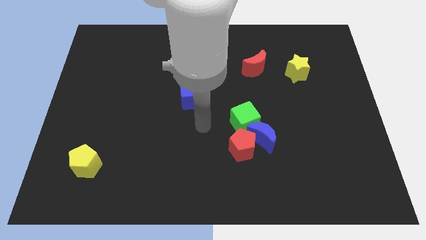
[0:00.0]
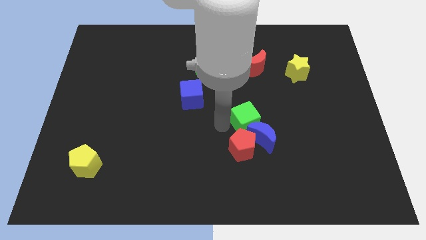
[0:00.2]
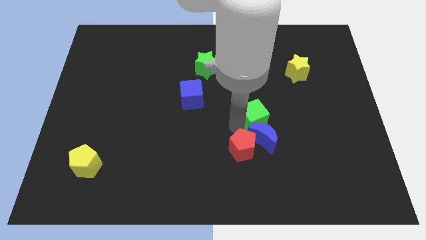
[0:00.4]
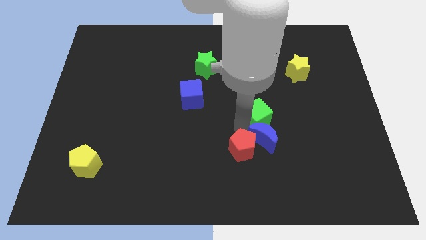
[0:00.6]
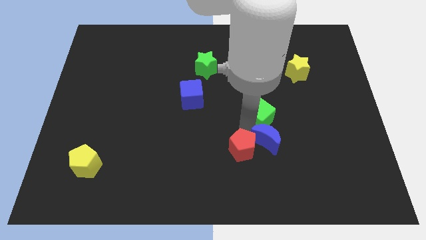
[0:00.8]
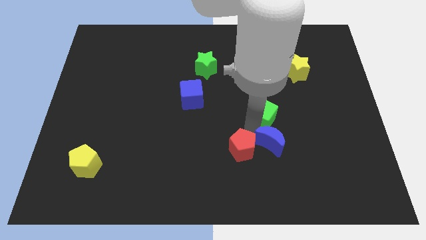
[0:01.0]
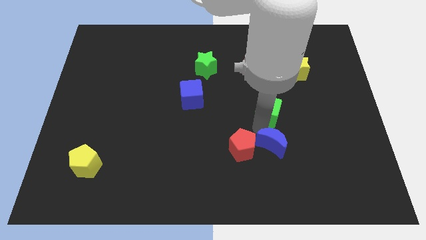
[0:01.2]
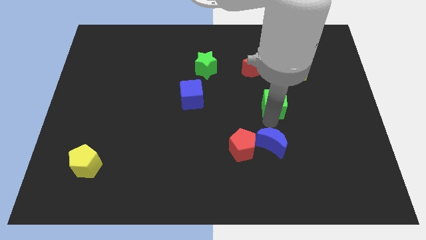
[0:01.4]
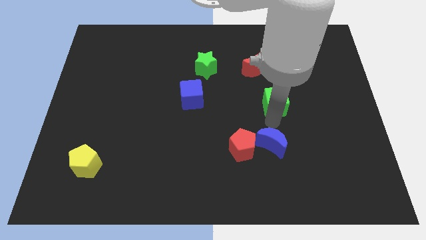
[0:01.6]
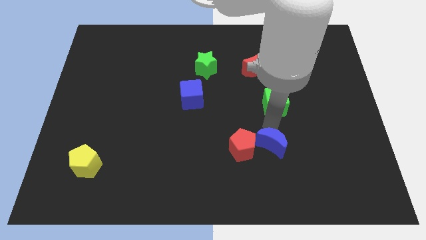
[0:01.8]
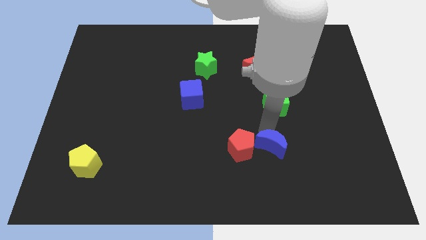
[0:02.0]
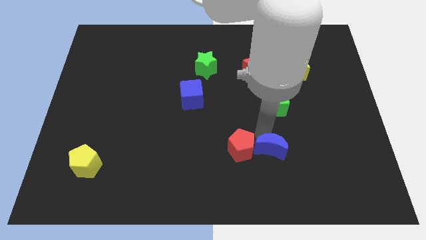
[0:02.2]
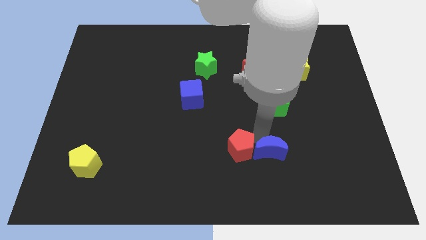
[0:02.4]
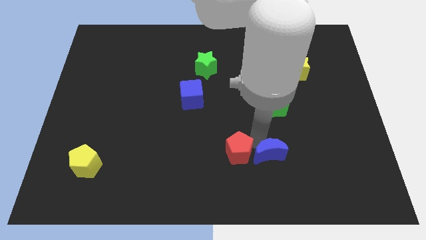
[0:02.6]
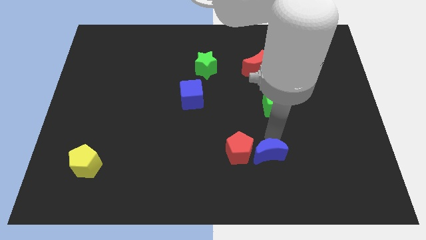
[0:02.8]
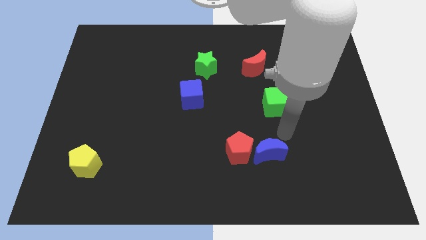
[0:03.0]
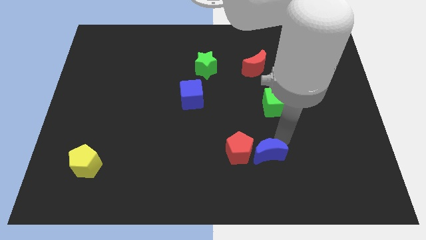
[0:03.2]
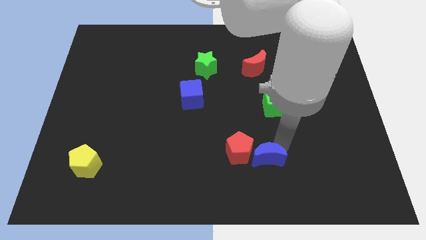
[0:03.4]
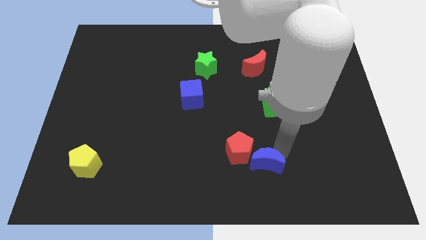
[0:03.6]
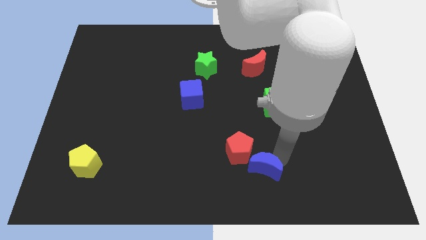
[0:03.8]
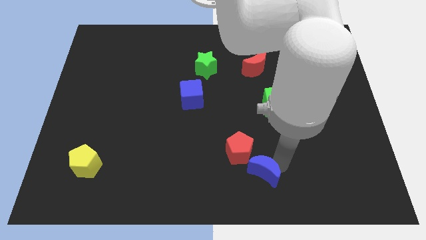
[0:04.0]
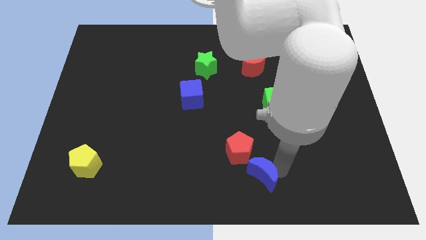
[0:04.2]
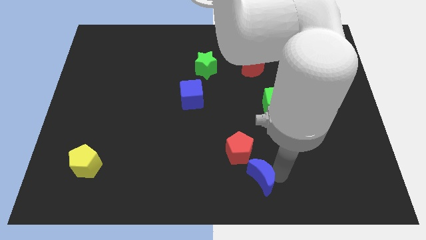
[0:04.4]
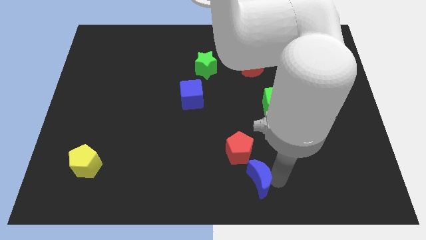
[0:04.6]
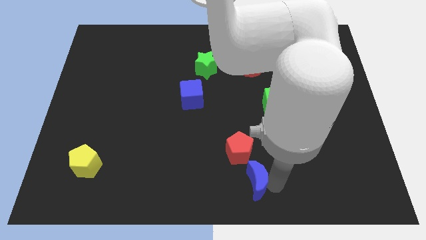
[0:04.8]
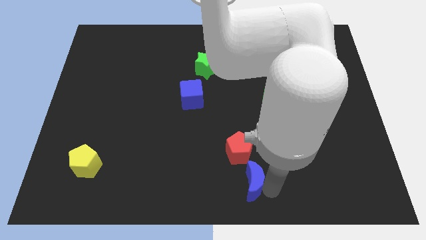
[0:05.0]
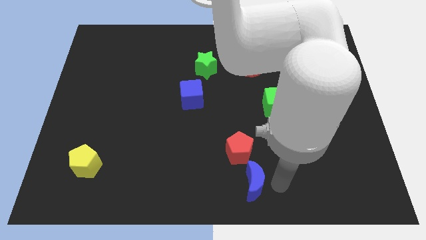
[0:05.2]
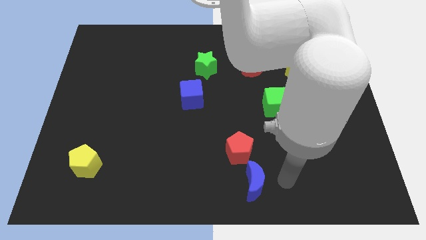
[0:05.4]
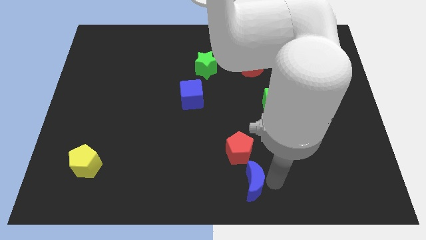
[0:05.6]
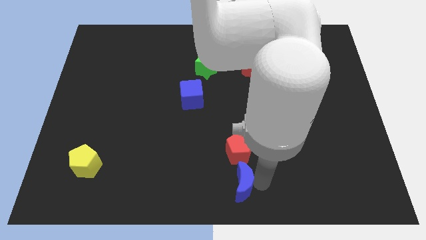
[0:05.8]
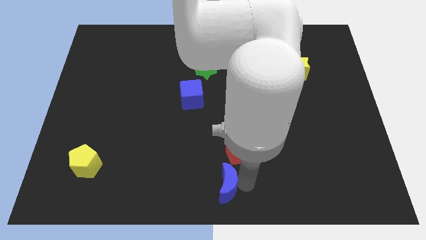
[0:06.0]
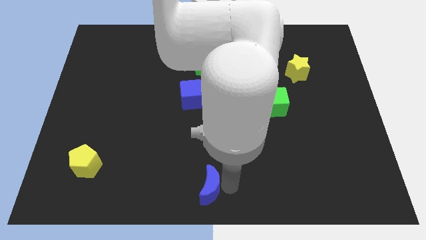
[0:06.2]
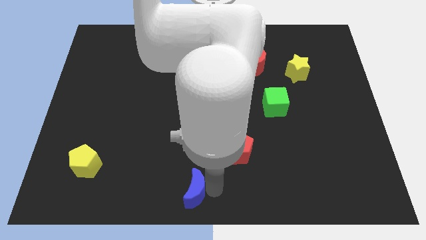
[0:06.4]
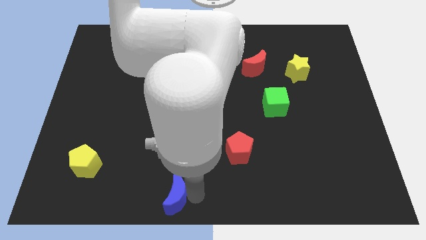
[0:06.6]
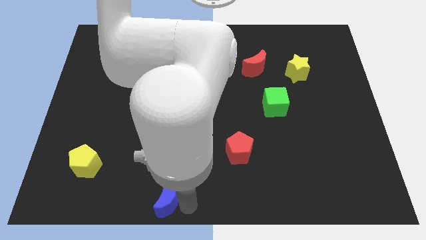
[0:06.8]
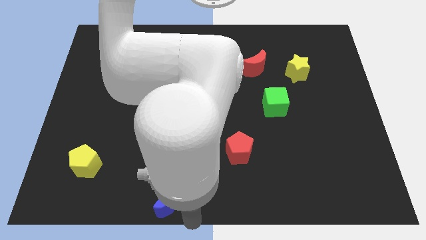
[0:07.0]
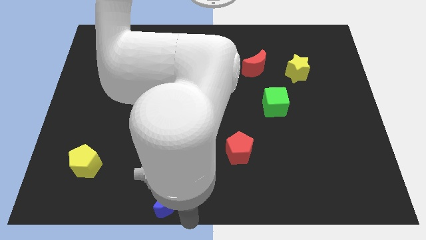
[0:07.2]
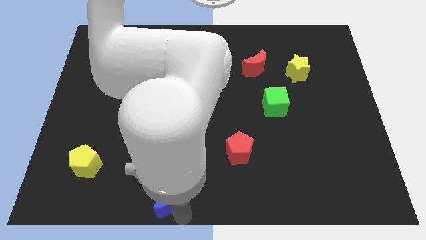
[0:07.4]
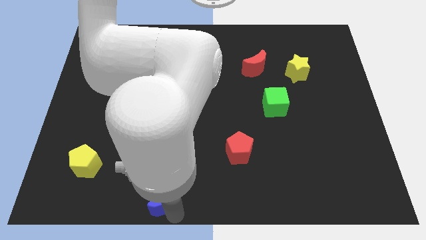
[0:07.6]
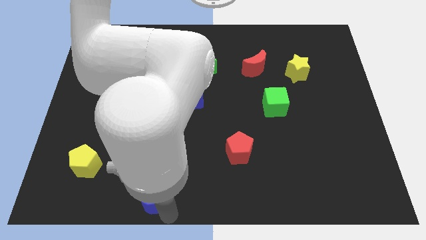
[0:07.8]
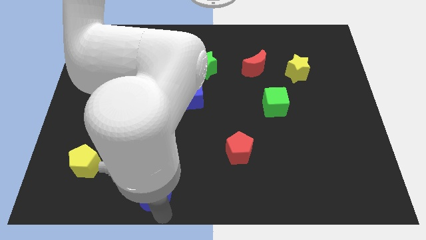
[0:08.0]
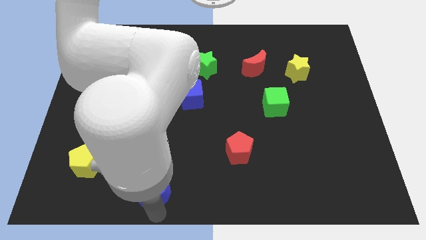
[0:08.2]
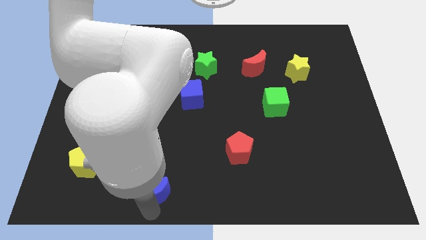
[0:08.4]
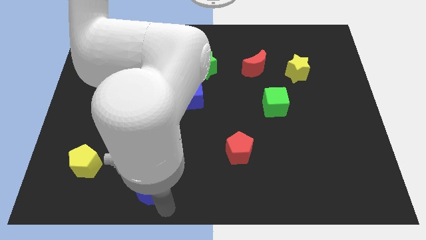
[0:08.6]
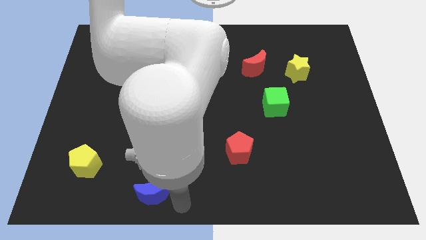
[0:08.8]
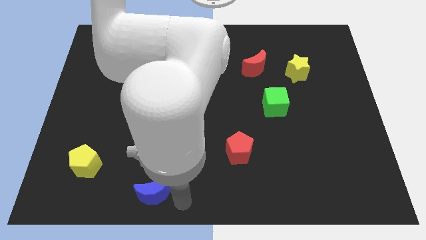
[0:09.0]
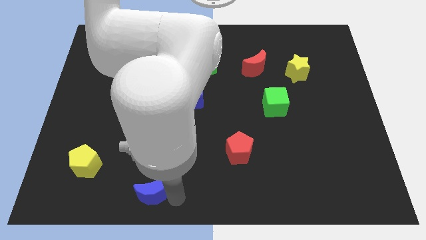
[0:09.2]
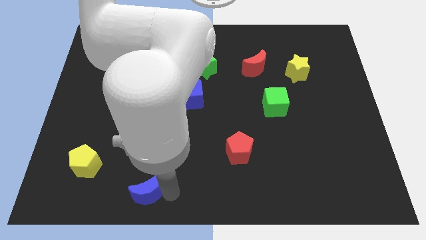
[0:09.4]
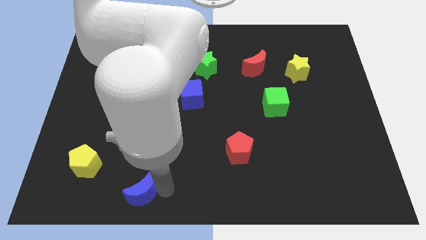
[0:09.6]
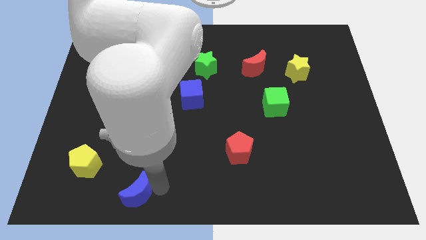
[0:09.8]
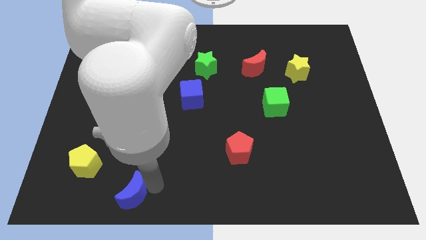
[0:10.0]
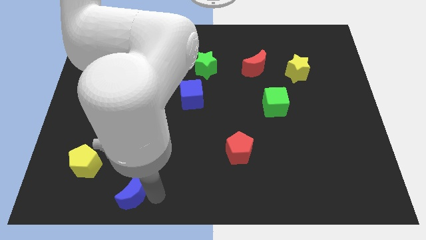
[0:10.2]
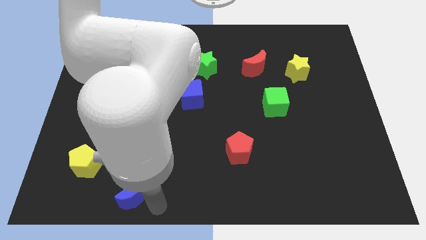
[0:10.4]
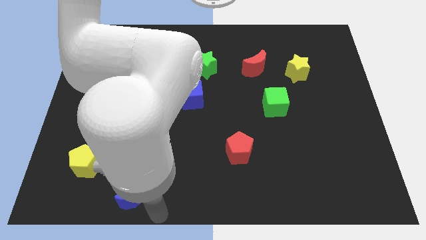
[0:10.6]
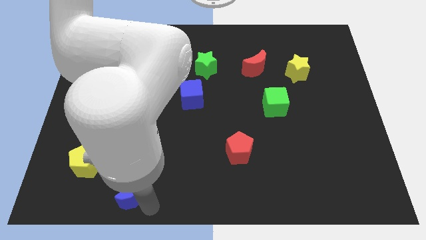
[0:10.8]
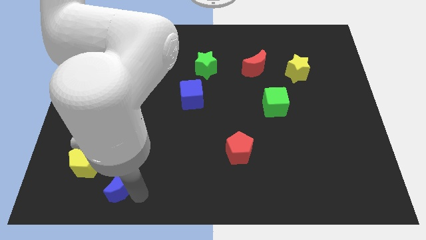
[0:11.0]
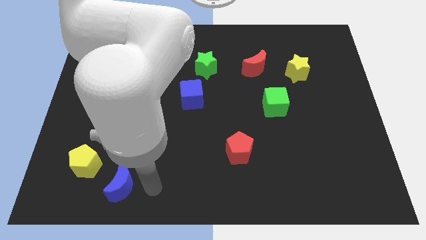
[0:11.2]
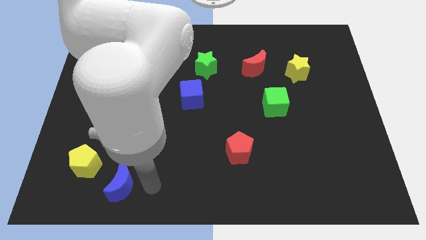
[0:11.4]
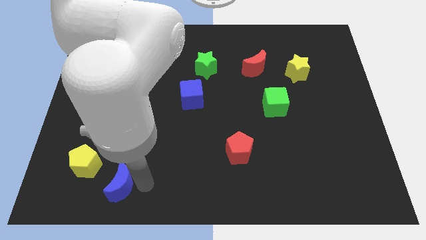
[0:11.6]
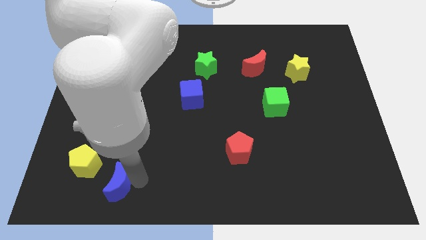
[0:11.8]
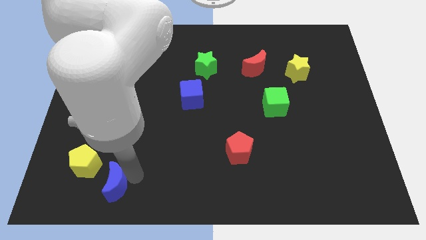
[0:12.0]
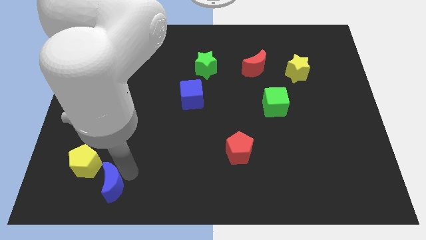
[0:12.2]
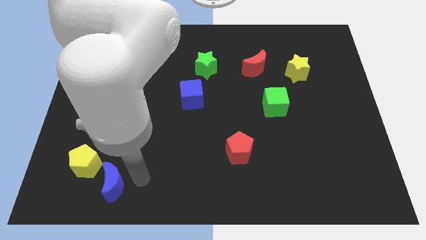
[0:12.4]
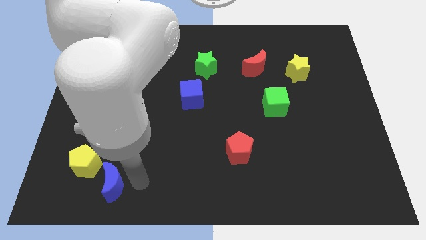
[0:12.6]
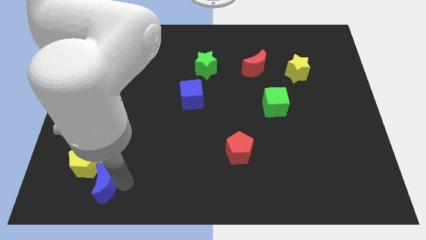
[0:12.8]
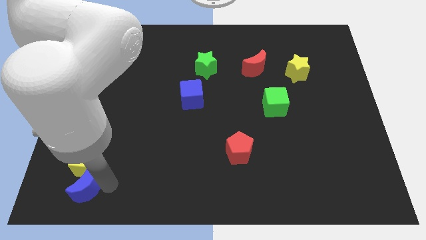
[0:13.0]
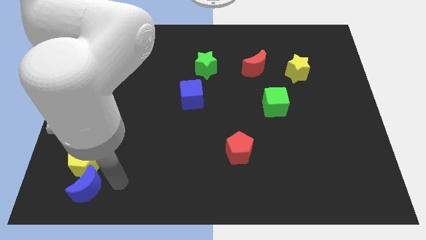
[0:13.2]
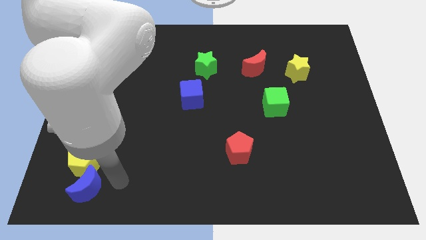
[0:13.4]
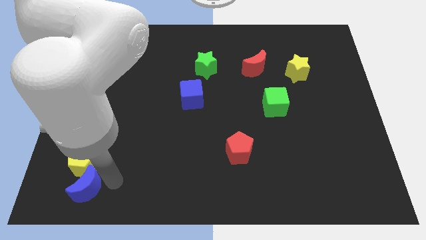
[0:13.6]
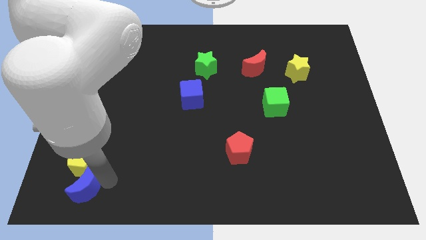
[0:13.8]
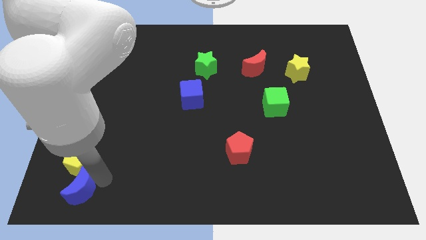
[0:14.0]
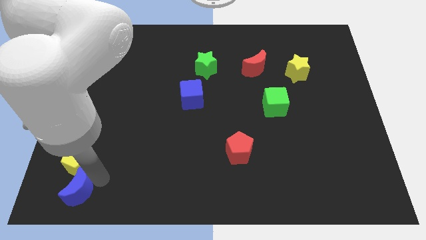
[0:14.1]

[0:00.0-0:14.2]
slide the blue moon to the lower left corner

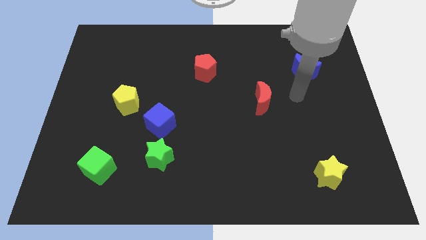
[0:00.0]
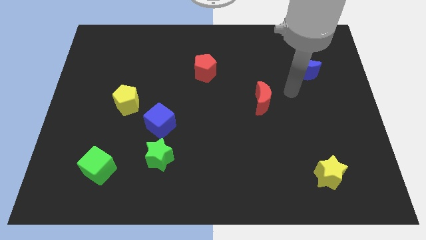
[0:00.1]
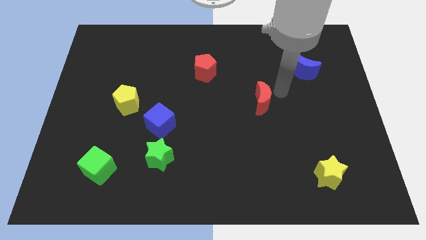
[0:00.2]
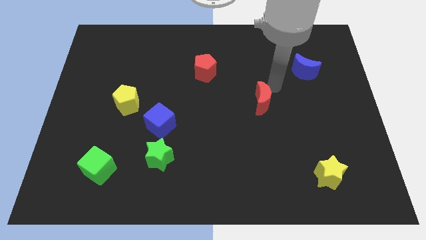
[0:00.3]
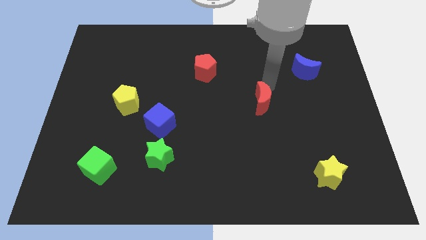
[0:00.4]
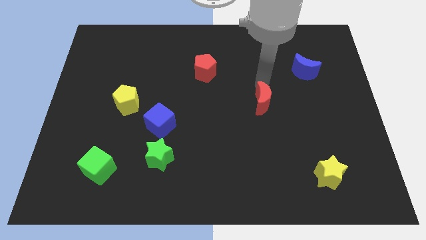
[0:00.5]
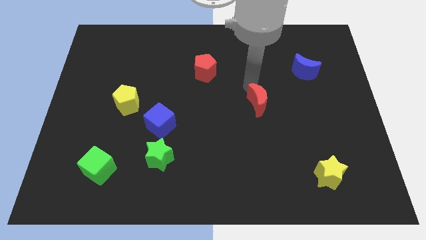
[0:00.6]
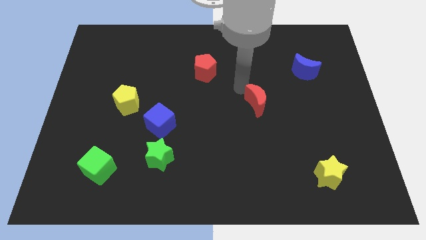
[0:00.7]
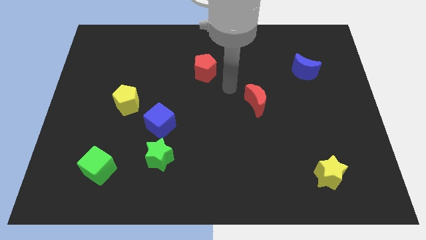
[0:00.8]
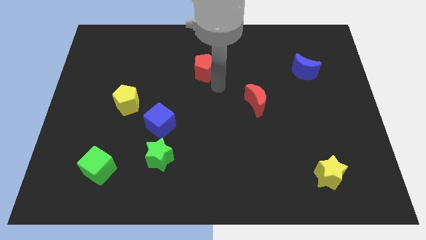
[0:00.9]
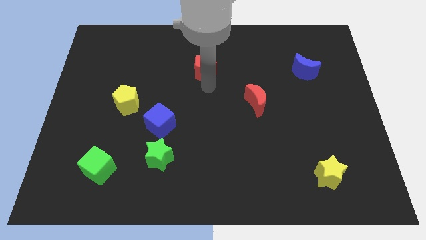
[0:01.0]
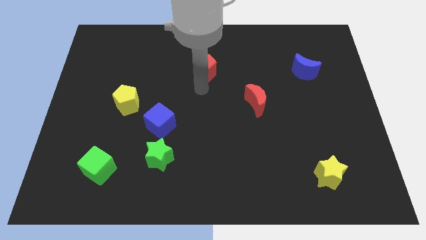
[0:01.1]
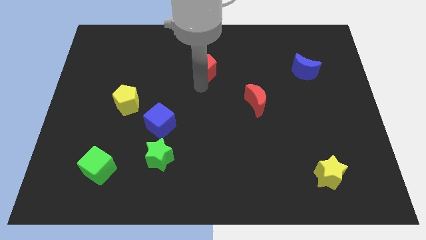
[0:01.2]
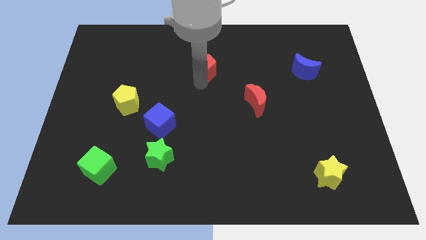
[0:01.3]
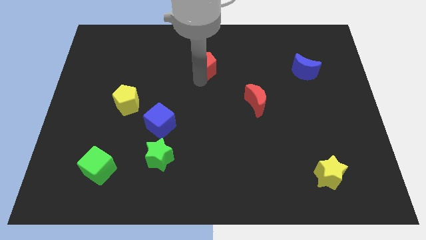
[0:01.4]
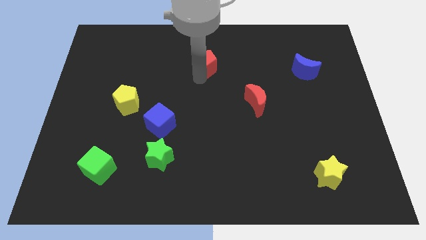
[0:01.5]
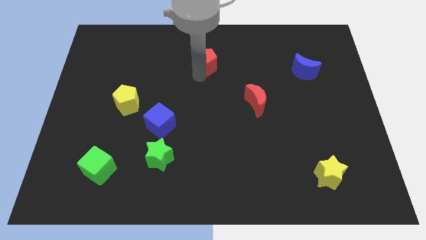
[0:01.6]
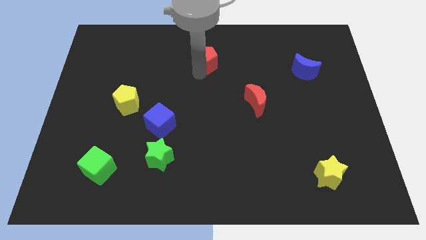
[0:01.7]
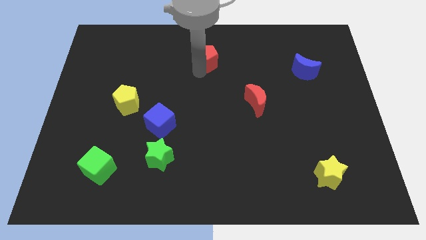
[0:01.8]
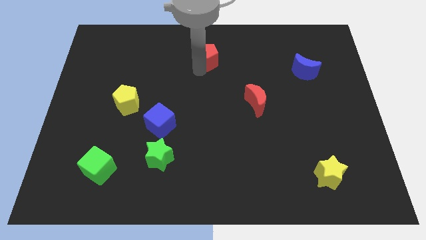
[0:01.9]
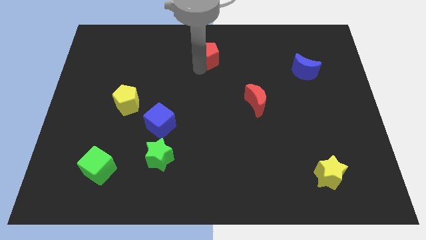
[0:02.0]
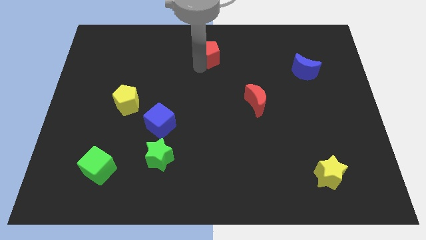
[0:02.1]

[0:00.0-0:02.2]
put the red pentagon to the top side
